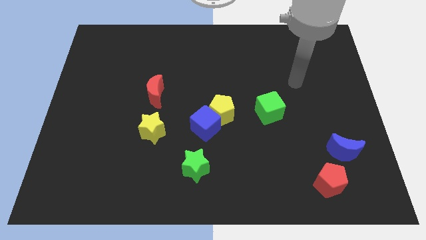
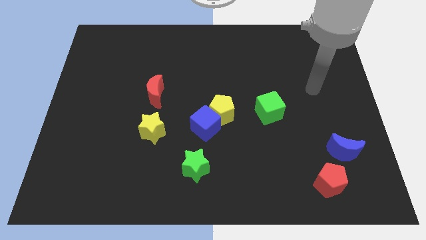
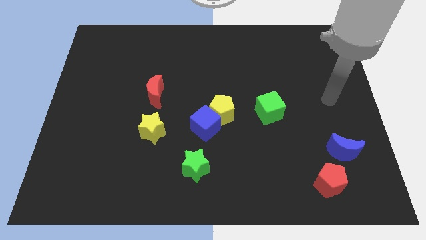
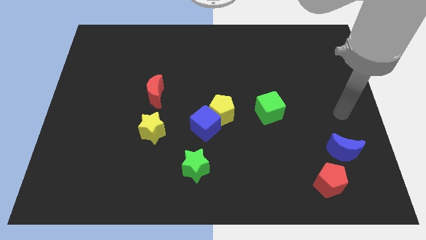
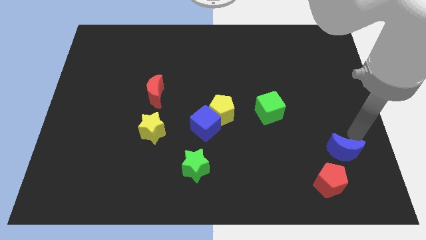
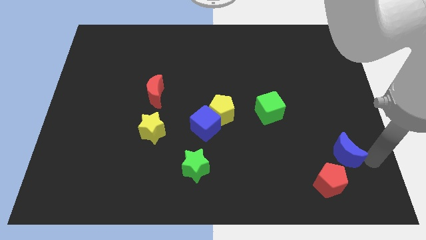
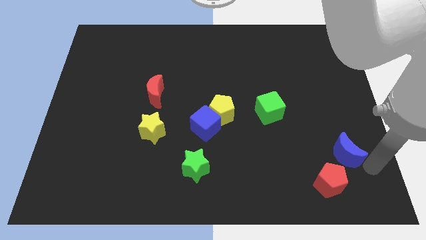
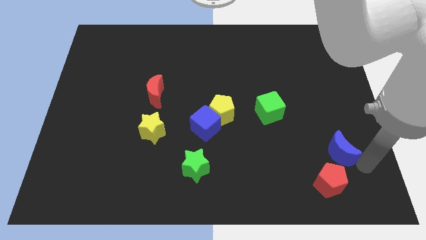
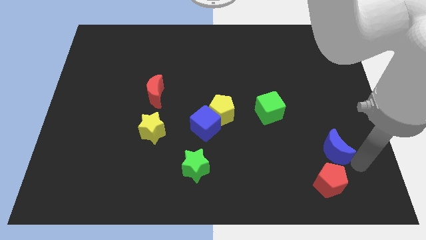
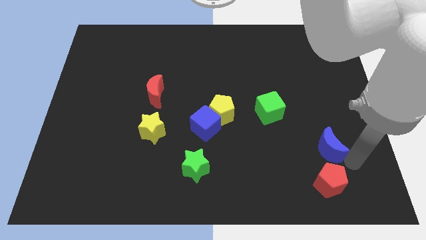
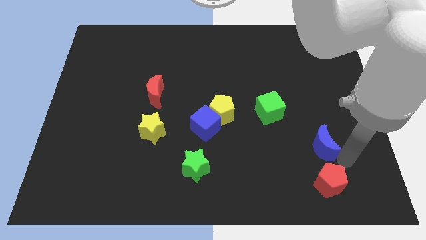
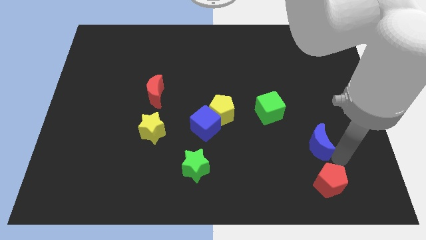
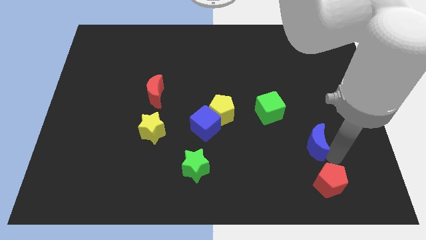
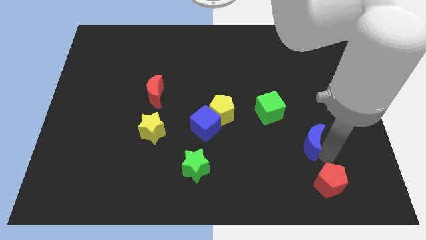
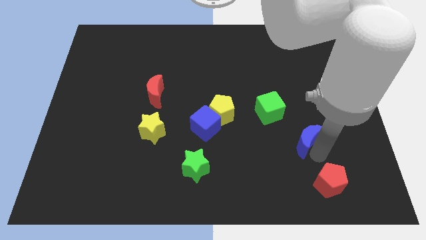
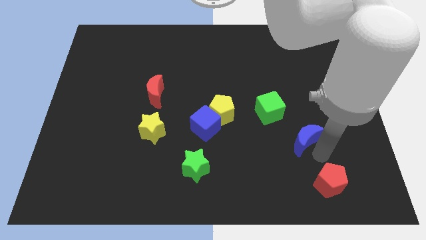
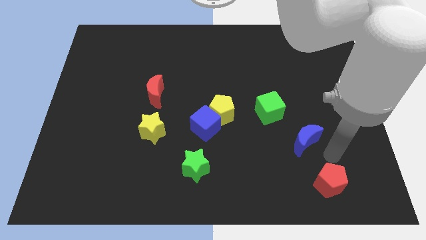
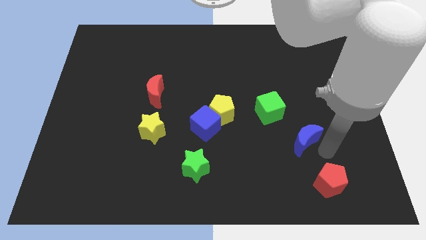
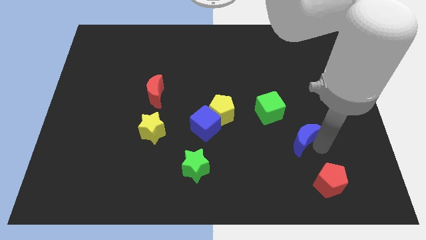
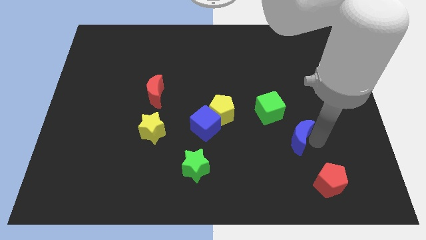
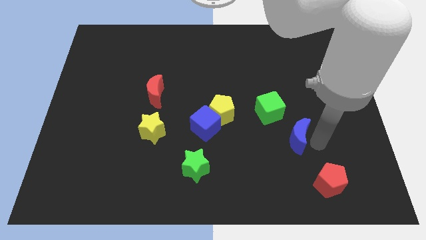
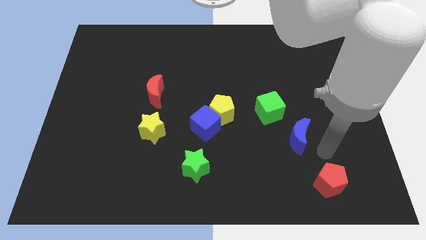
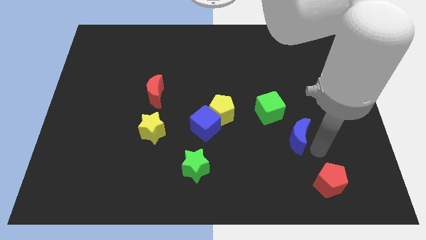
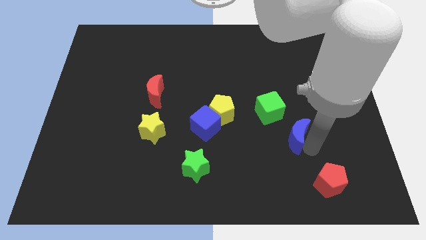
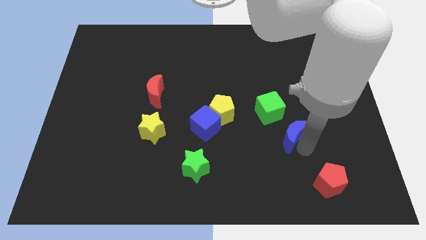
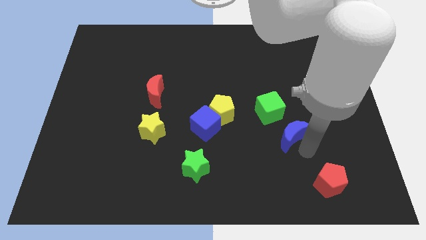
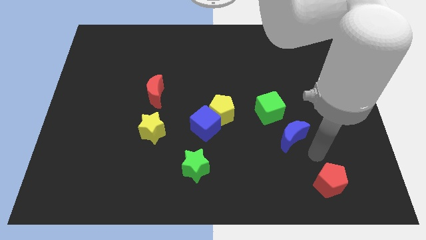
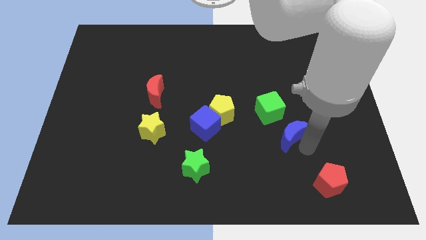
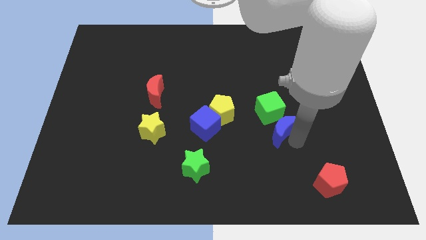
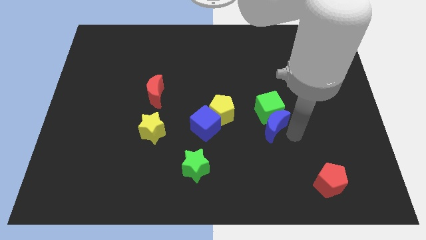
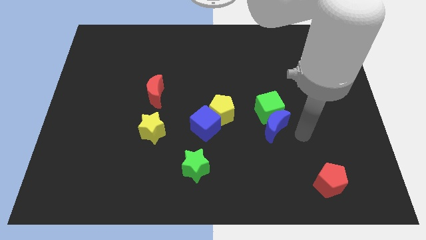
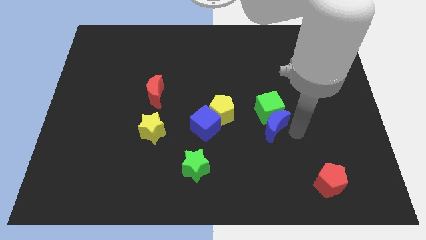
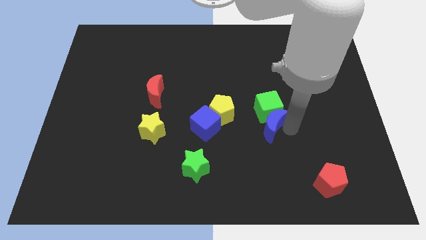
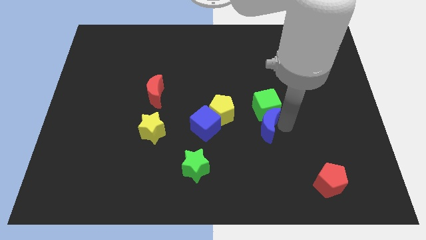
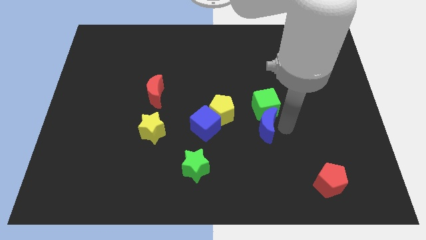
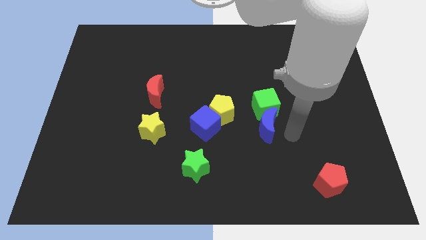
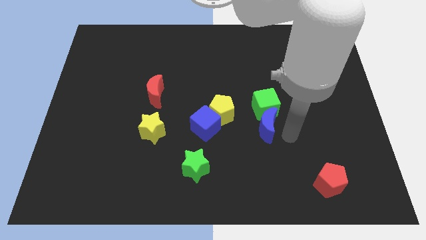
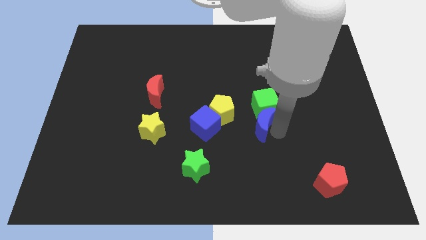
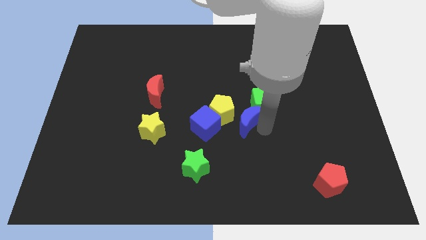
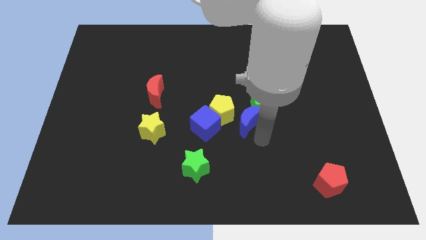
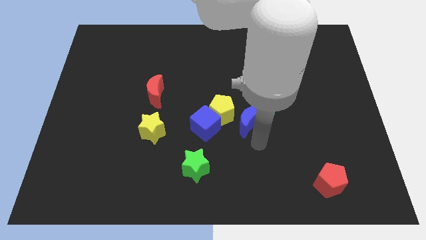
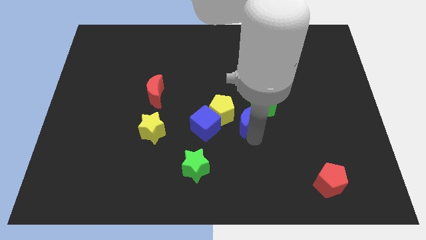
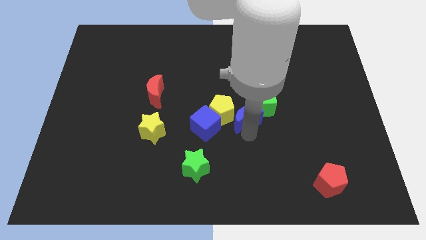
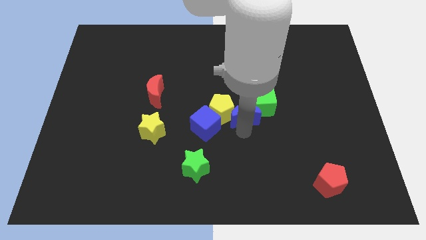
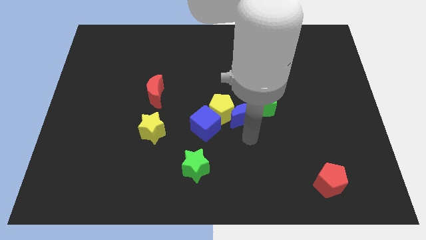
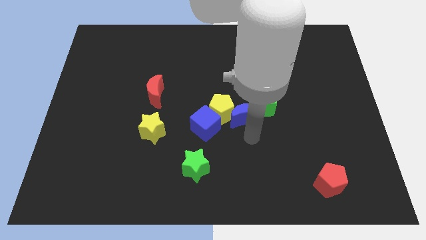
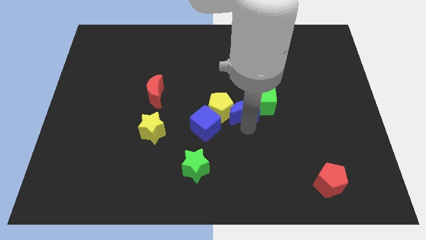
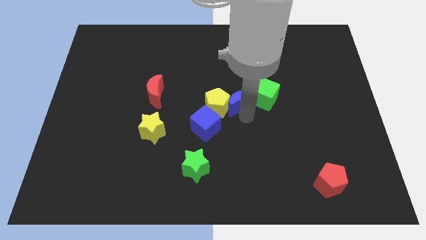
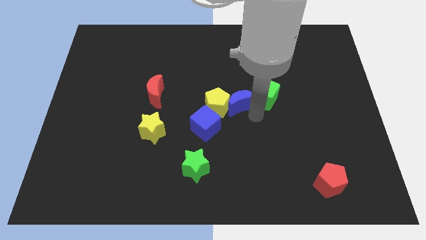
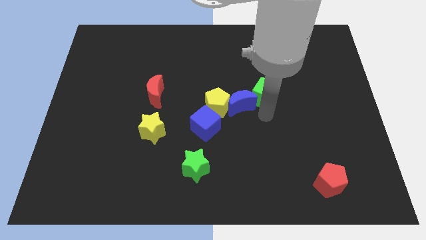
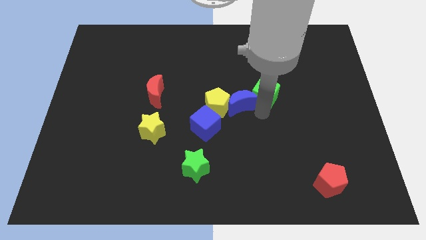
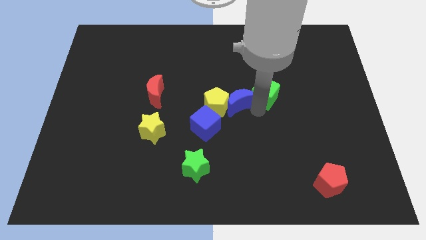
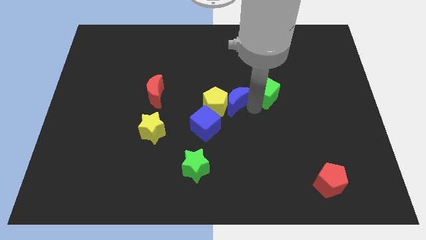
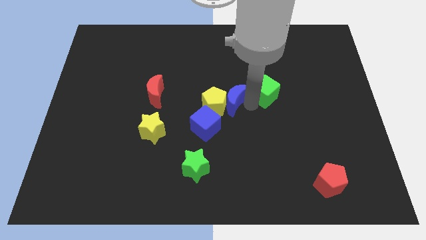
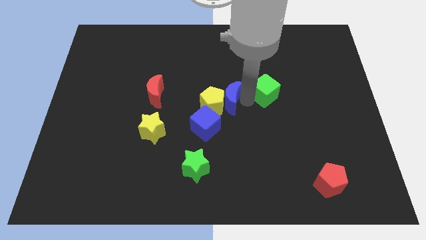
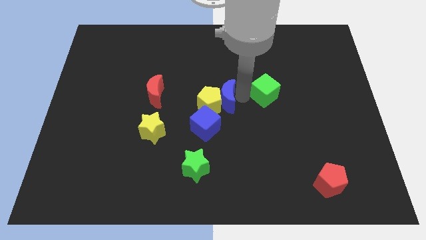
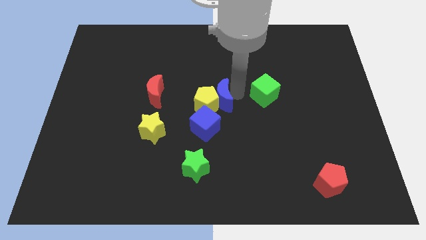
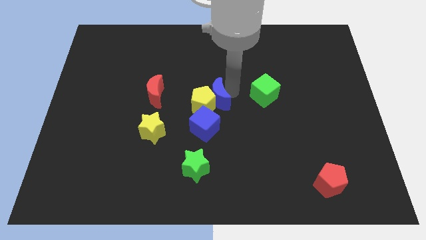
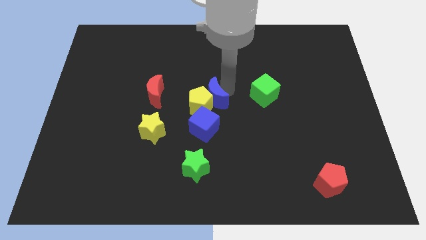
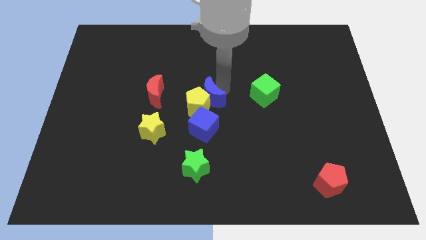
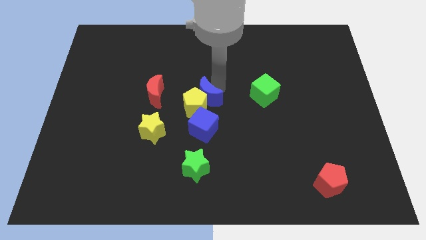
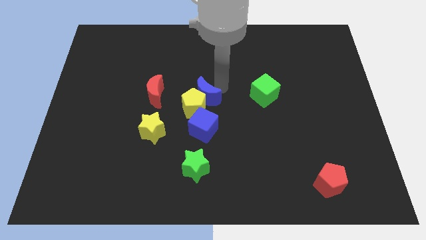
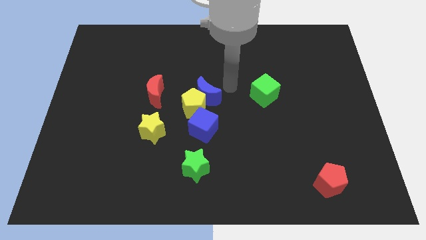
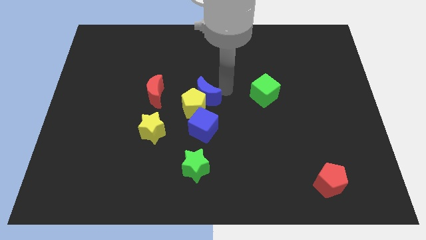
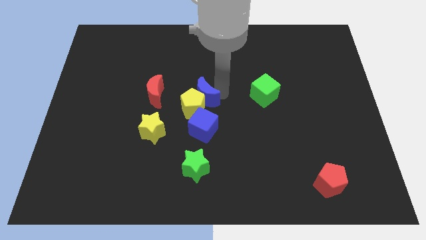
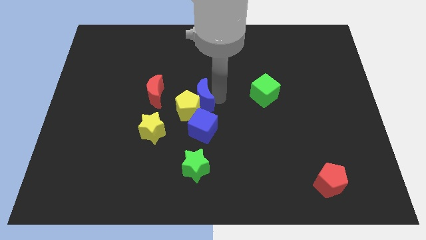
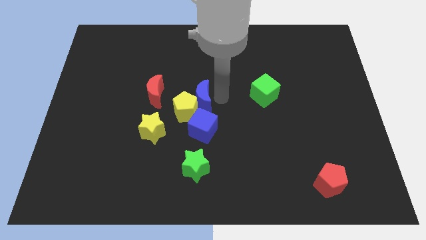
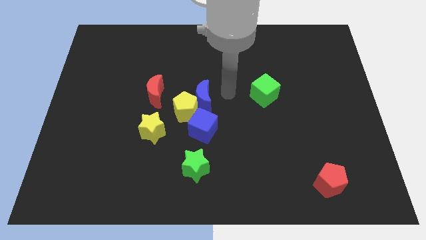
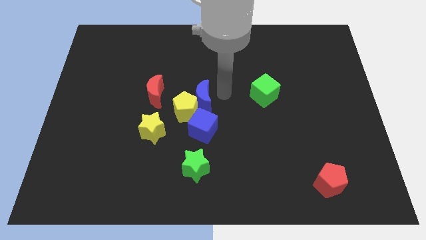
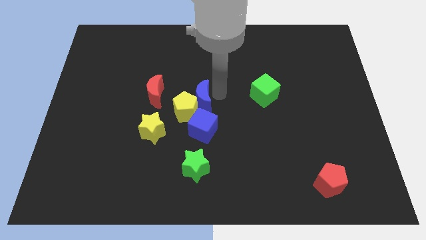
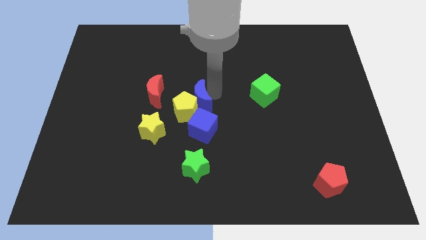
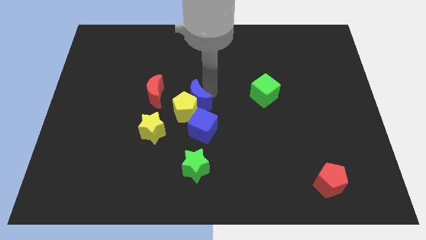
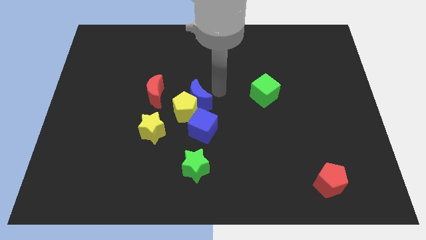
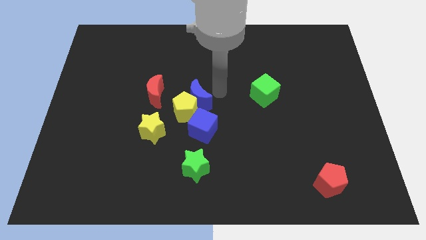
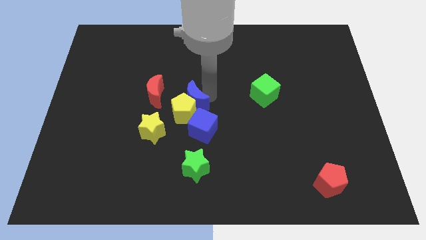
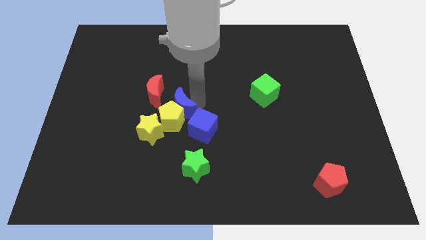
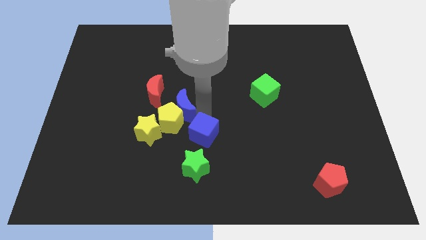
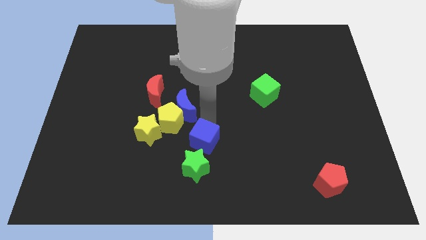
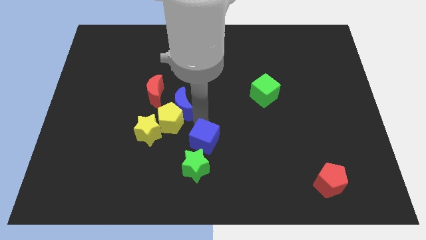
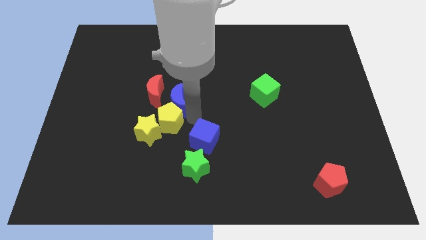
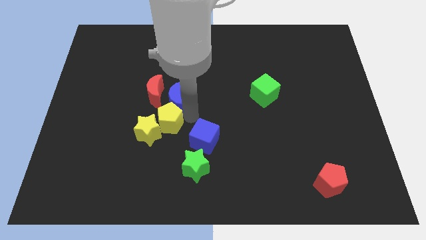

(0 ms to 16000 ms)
push the blue moon to the red moon
